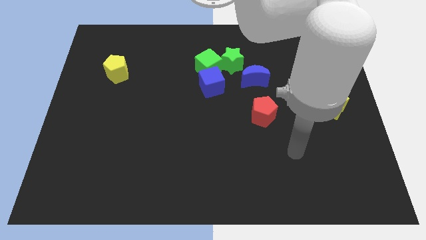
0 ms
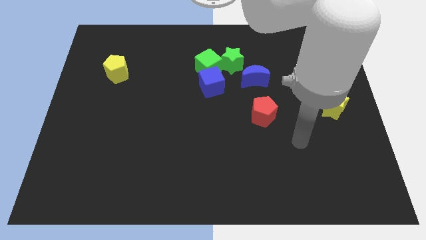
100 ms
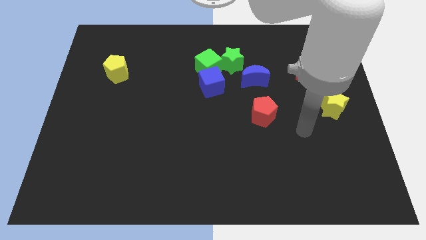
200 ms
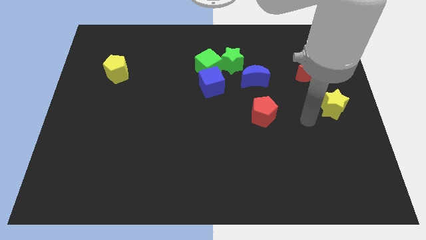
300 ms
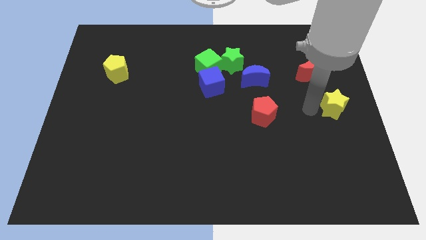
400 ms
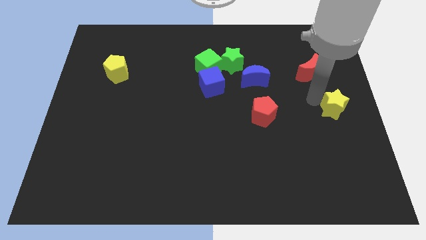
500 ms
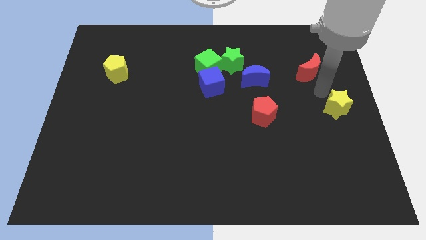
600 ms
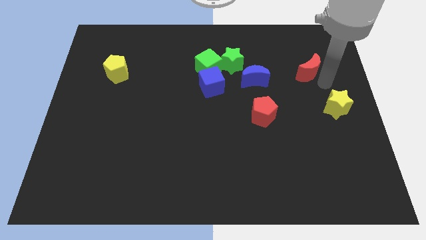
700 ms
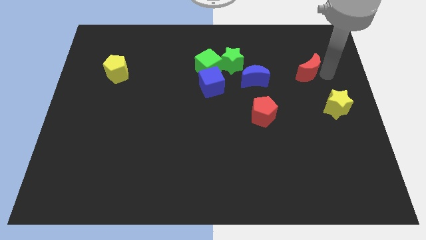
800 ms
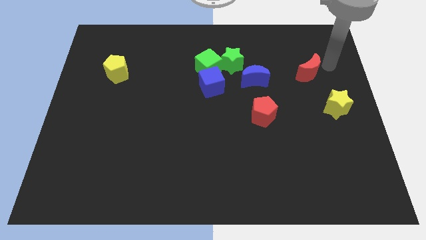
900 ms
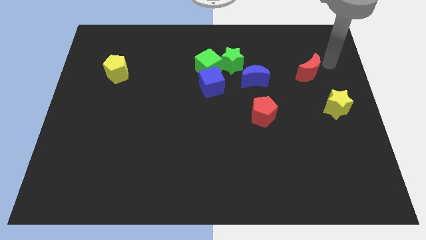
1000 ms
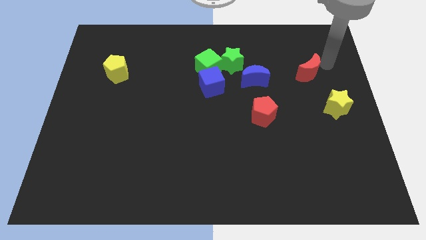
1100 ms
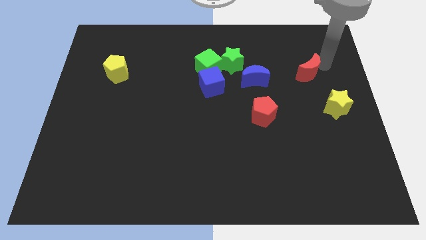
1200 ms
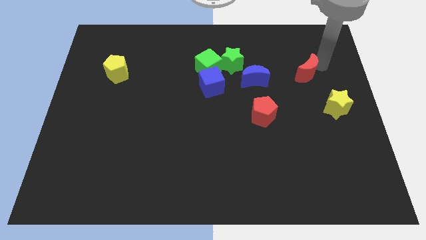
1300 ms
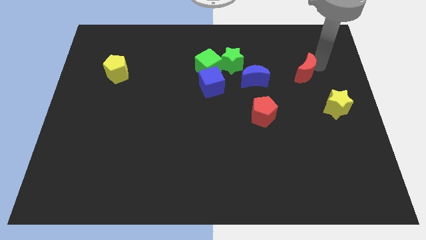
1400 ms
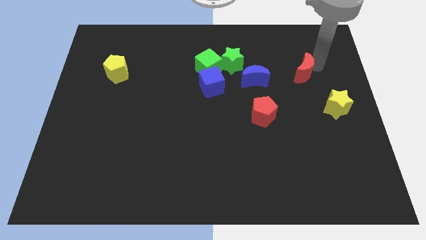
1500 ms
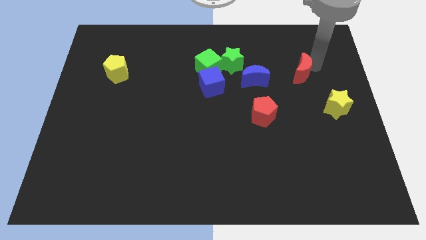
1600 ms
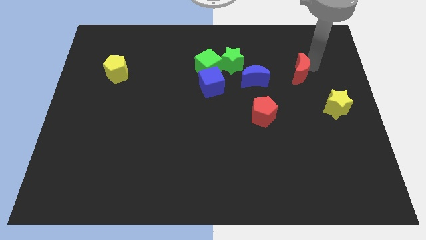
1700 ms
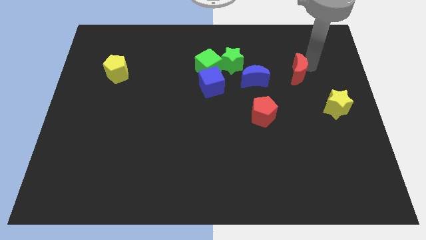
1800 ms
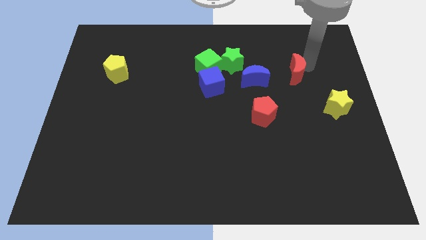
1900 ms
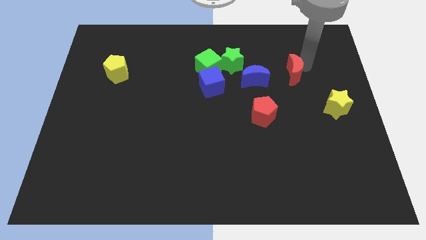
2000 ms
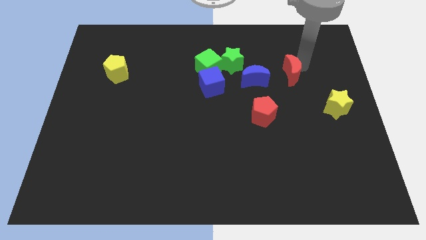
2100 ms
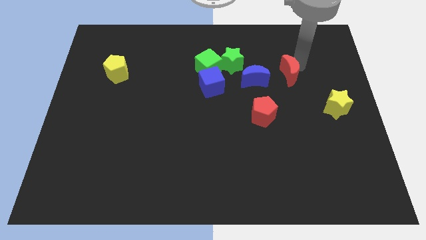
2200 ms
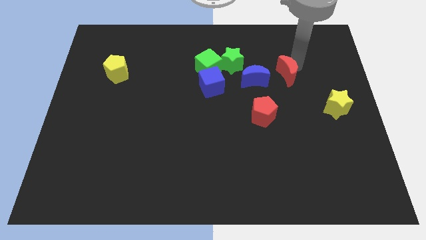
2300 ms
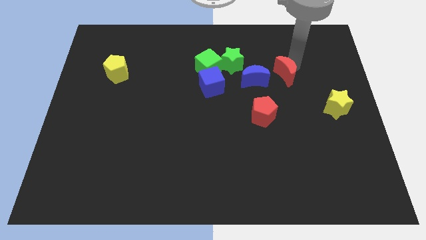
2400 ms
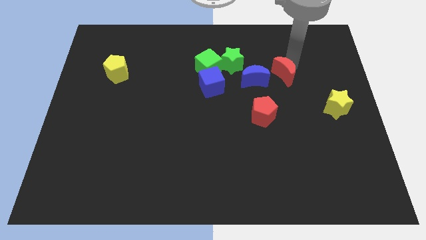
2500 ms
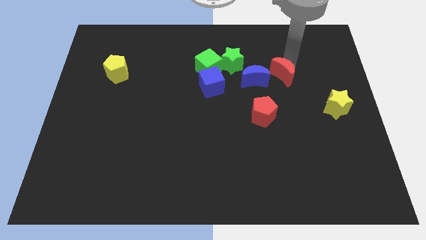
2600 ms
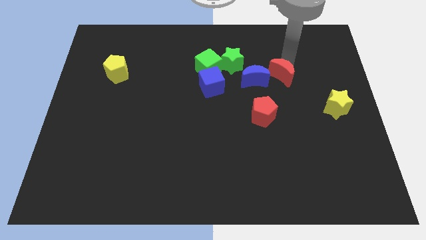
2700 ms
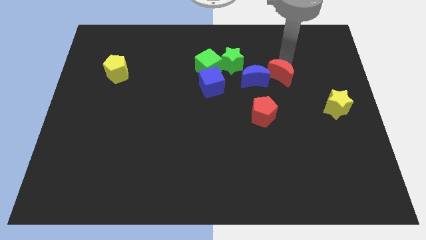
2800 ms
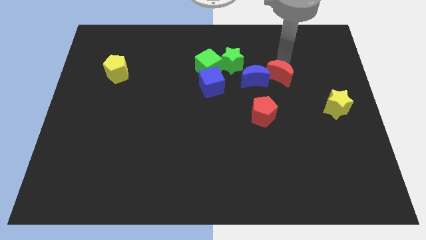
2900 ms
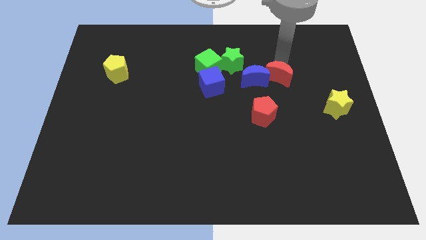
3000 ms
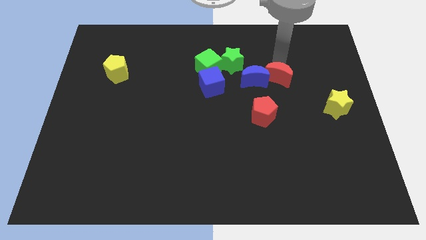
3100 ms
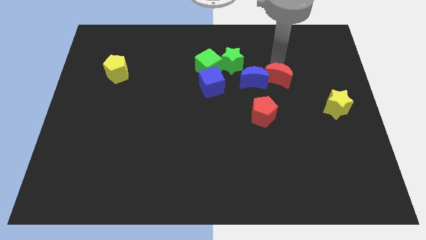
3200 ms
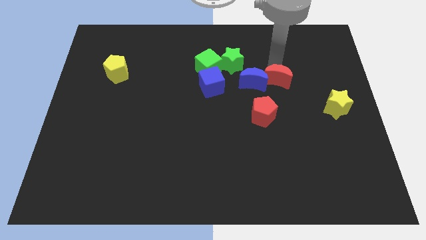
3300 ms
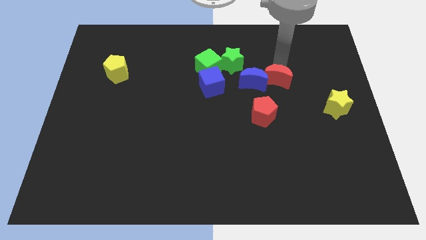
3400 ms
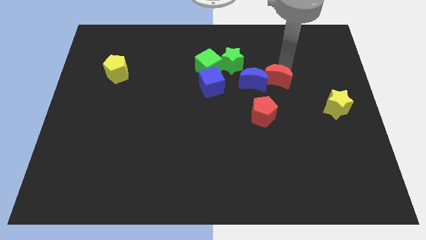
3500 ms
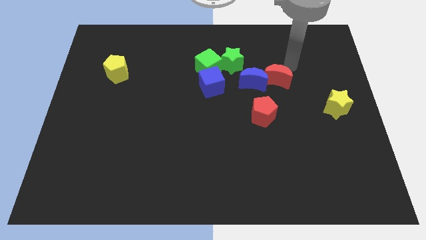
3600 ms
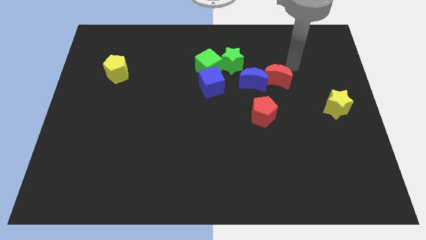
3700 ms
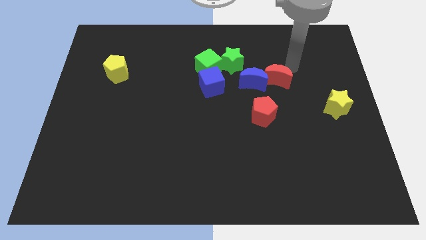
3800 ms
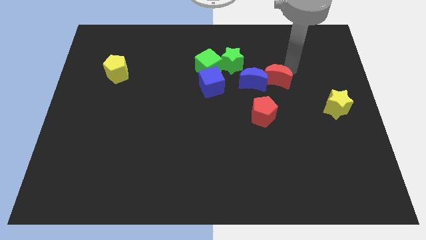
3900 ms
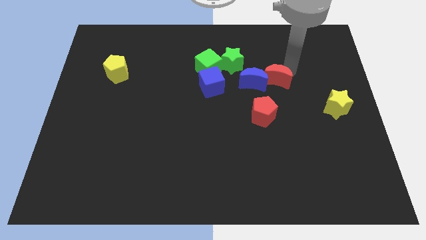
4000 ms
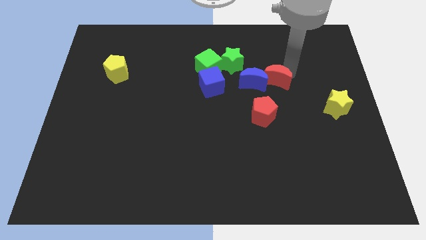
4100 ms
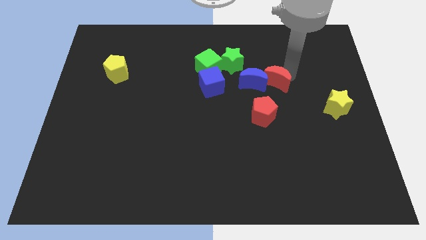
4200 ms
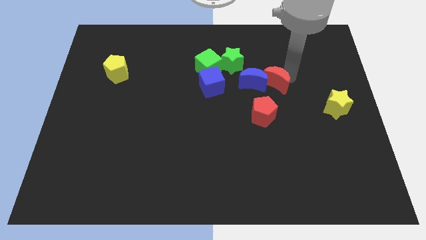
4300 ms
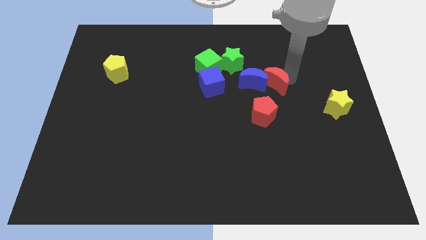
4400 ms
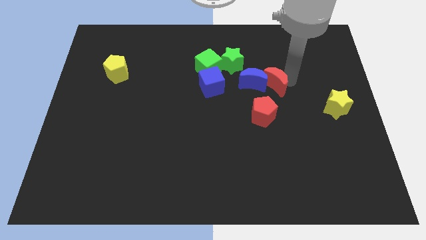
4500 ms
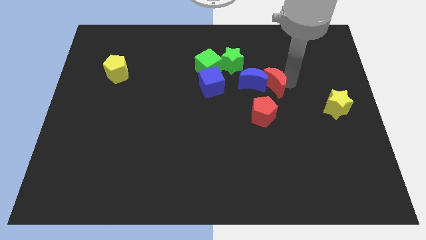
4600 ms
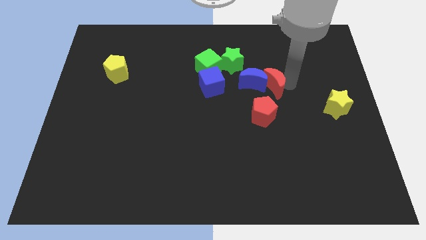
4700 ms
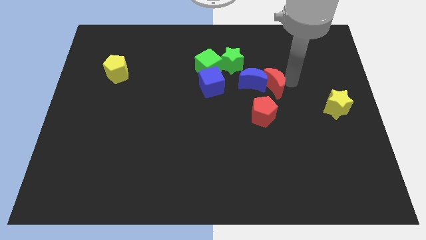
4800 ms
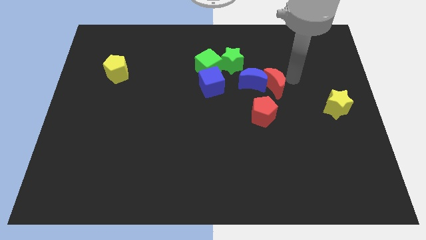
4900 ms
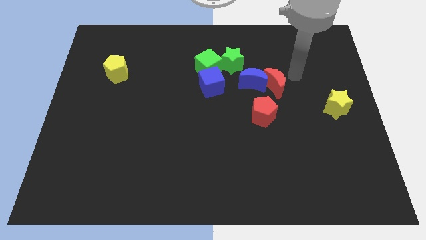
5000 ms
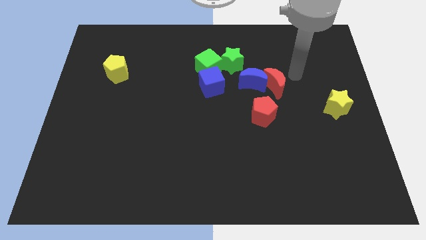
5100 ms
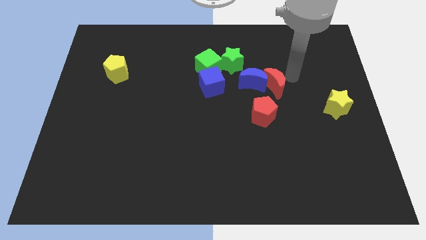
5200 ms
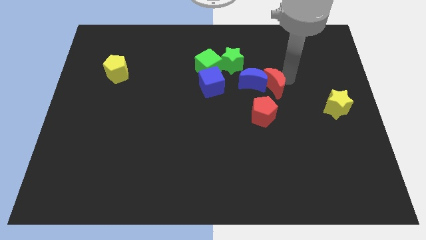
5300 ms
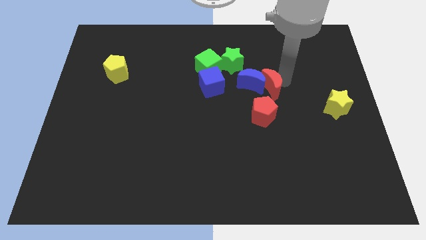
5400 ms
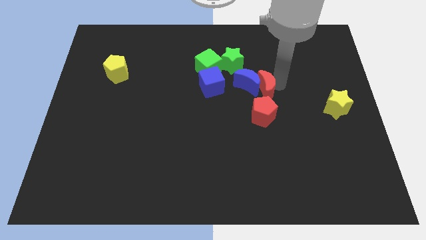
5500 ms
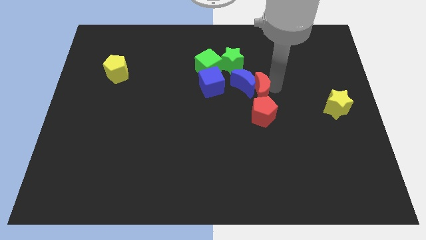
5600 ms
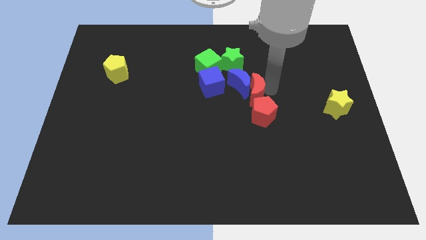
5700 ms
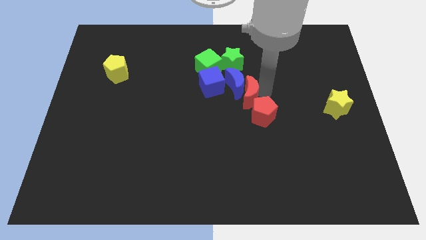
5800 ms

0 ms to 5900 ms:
push the red moon to the bottom of the green star

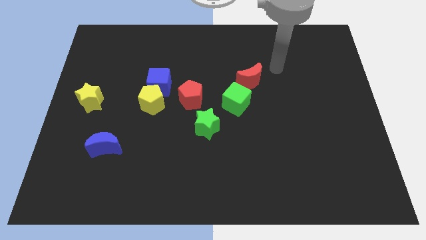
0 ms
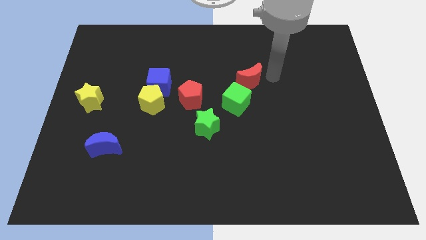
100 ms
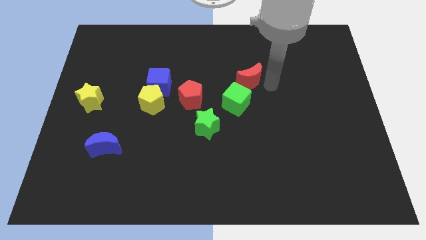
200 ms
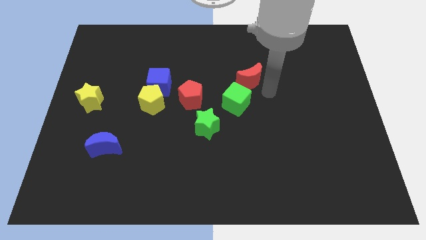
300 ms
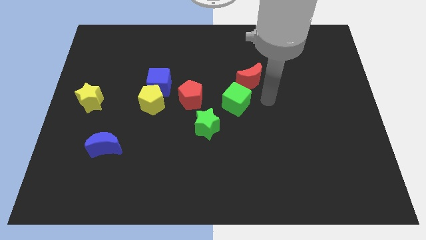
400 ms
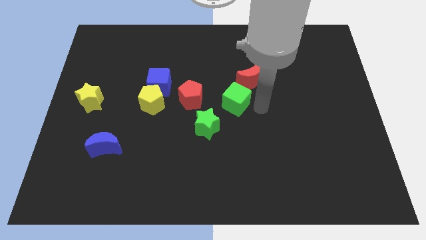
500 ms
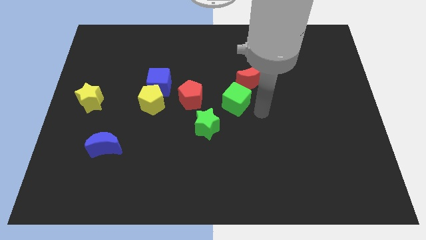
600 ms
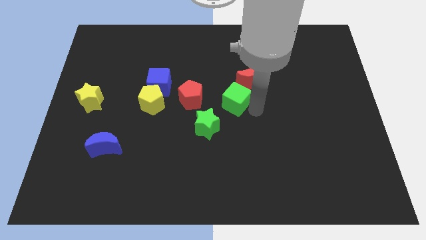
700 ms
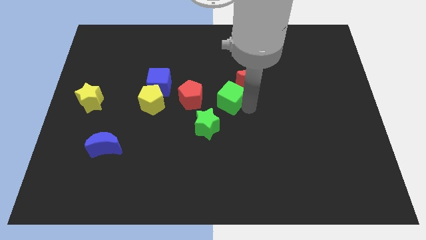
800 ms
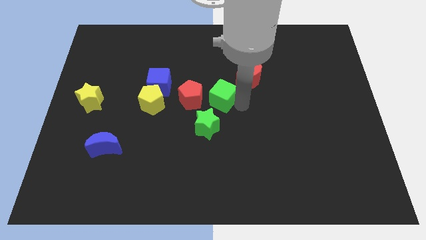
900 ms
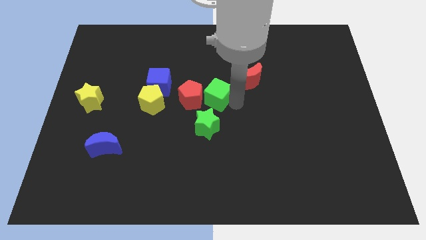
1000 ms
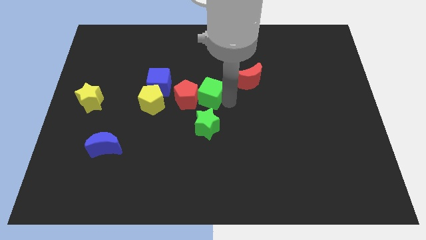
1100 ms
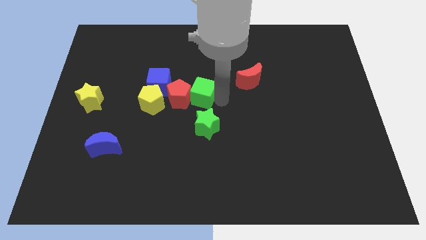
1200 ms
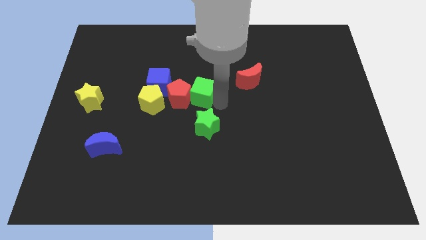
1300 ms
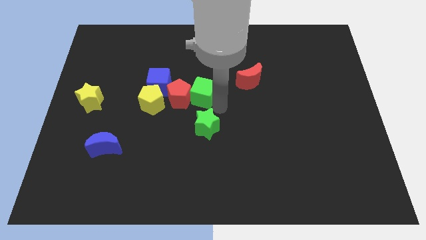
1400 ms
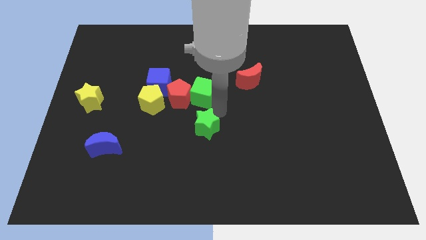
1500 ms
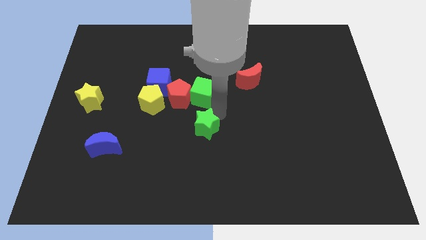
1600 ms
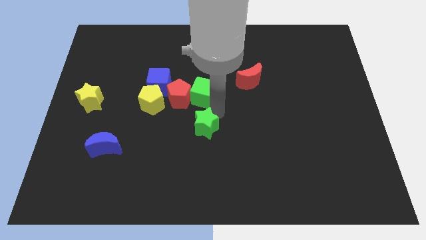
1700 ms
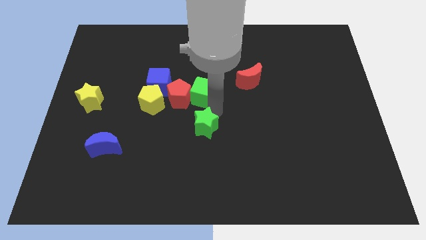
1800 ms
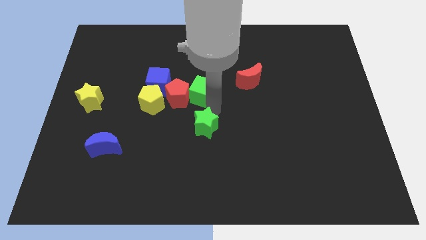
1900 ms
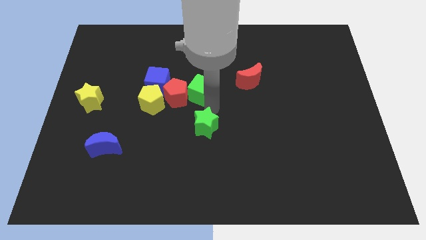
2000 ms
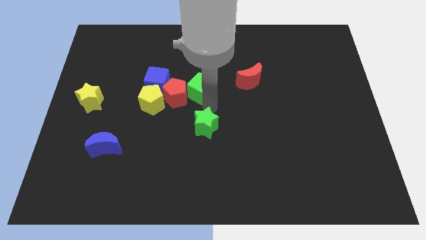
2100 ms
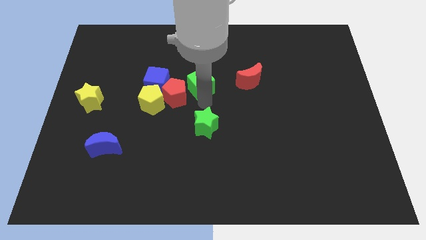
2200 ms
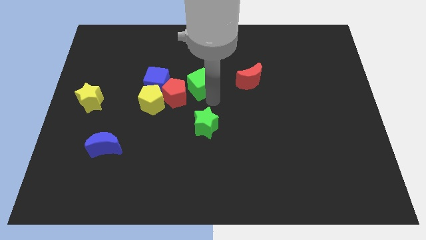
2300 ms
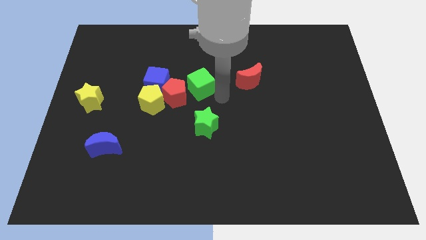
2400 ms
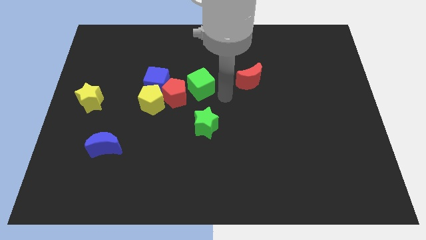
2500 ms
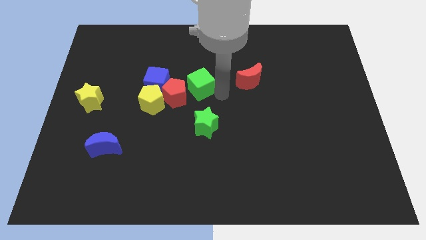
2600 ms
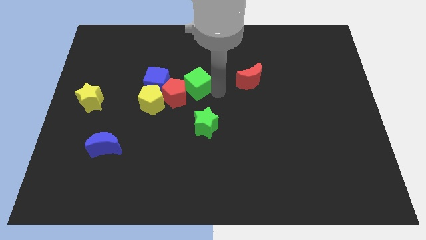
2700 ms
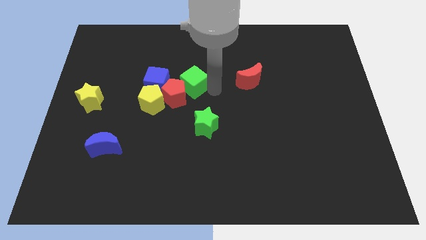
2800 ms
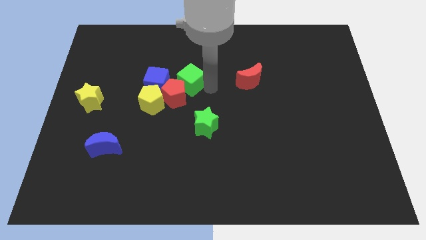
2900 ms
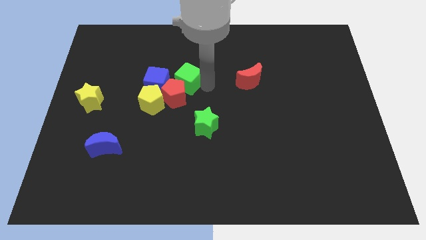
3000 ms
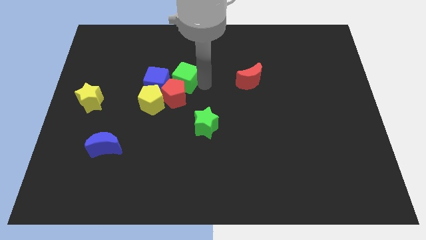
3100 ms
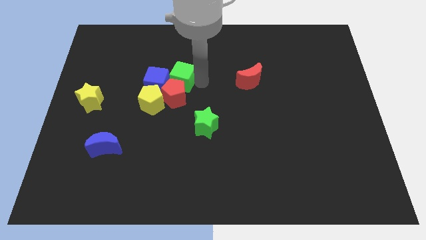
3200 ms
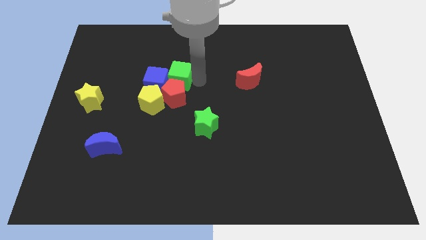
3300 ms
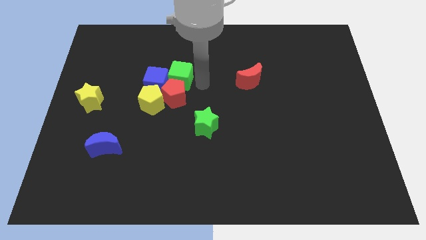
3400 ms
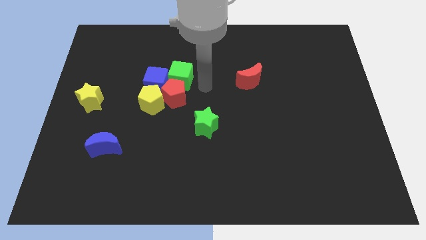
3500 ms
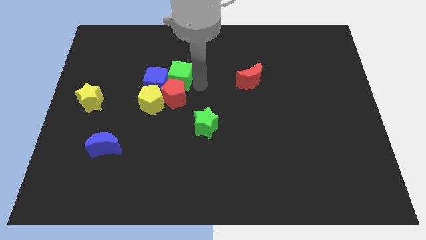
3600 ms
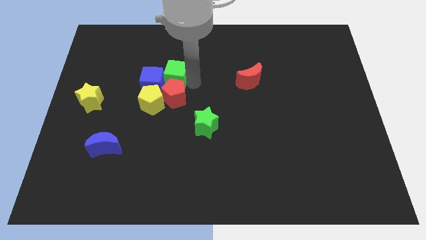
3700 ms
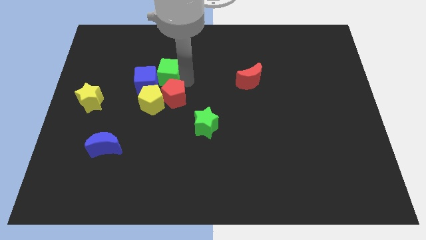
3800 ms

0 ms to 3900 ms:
put the green cube to the top side of the yellow pentagon
